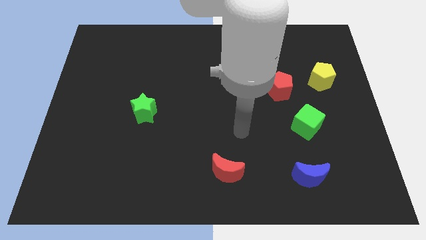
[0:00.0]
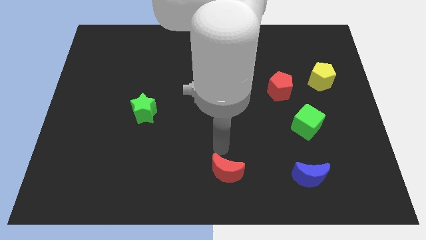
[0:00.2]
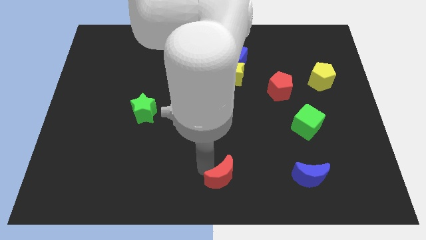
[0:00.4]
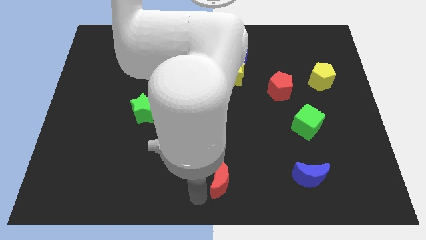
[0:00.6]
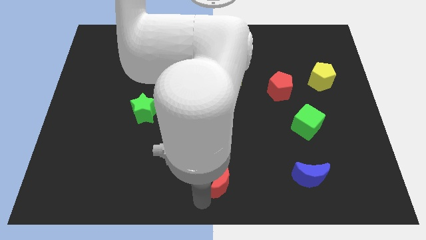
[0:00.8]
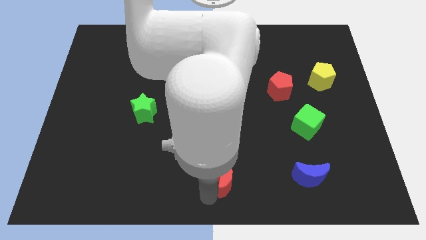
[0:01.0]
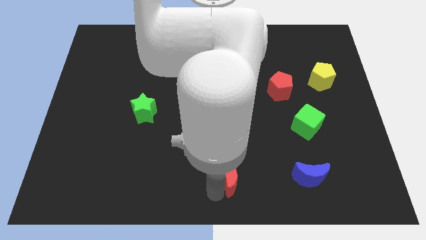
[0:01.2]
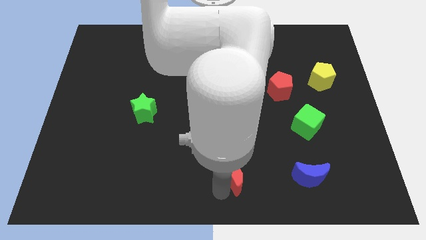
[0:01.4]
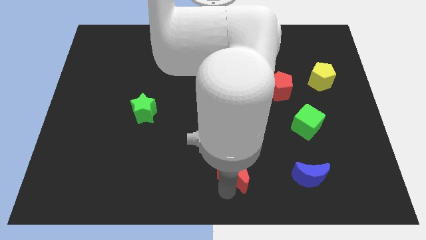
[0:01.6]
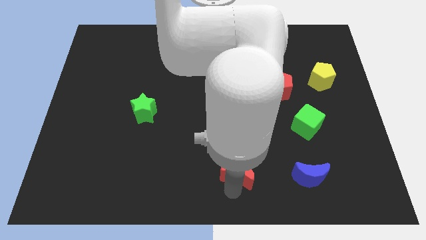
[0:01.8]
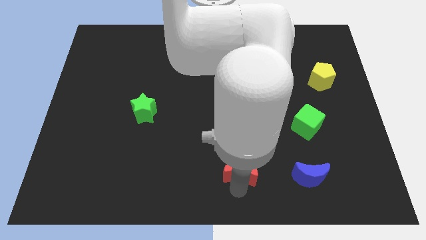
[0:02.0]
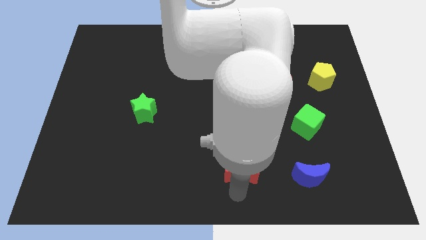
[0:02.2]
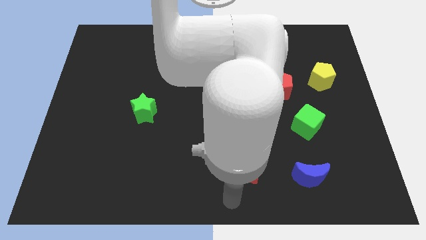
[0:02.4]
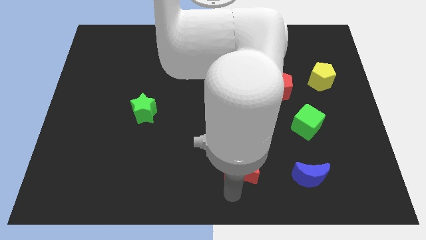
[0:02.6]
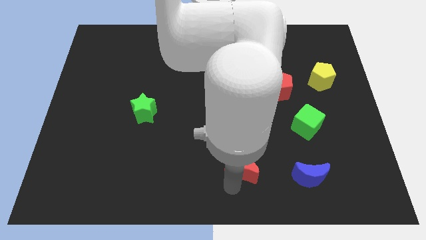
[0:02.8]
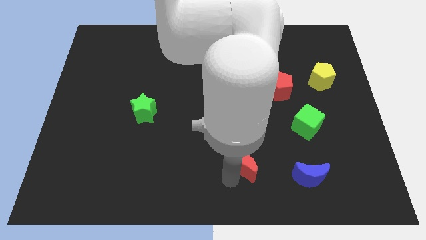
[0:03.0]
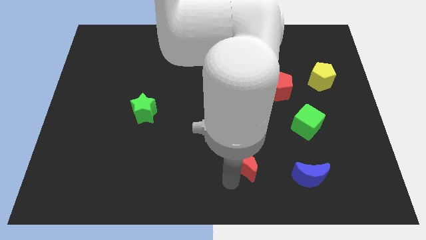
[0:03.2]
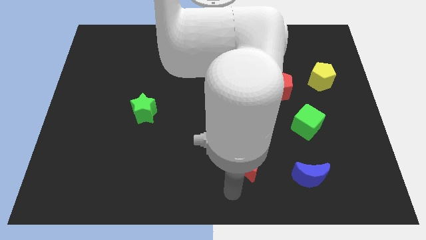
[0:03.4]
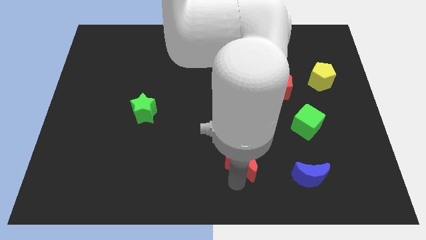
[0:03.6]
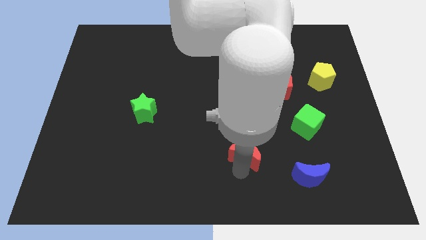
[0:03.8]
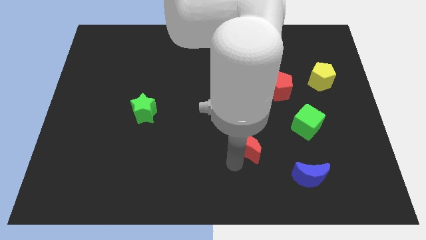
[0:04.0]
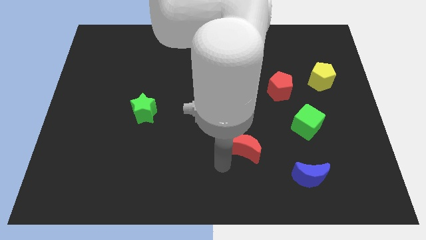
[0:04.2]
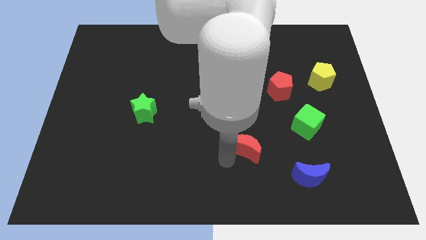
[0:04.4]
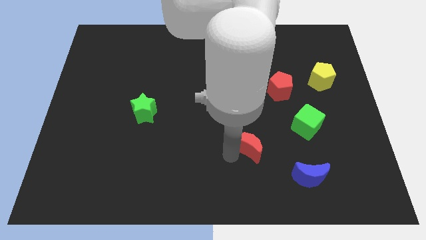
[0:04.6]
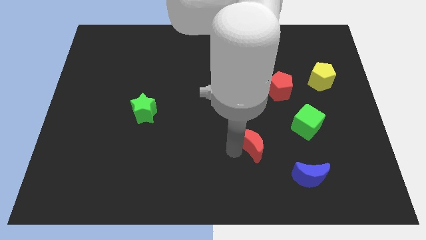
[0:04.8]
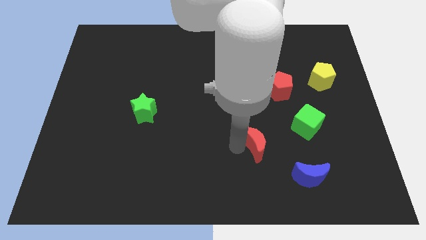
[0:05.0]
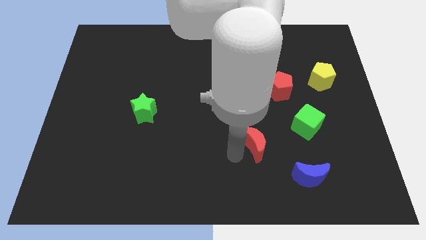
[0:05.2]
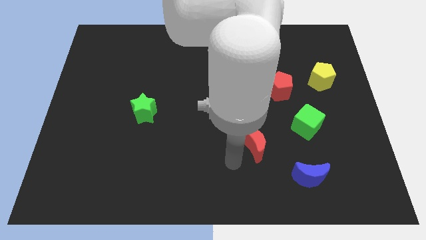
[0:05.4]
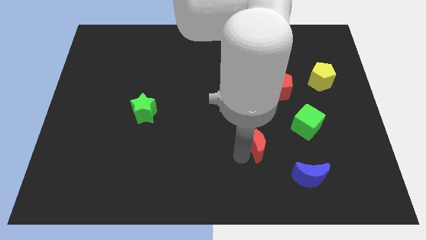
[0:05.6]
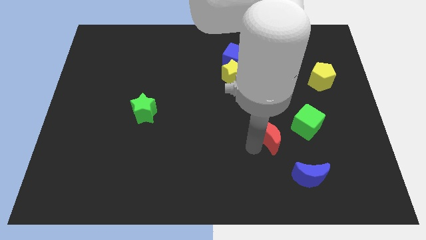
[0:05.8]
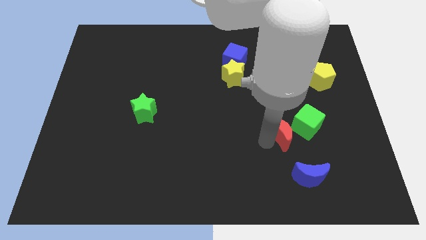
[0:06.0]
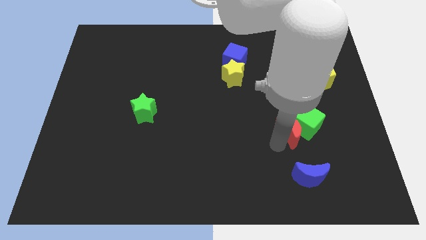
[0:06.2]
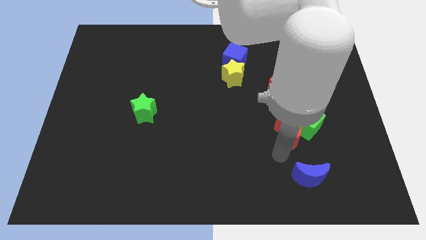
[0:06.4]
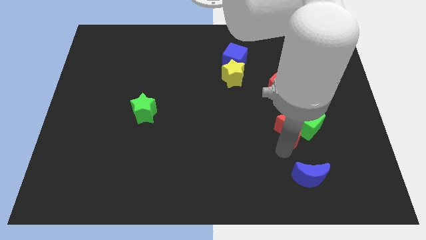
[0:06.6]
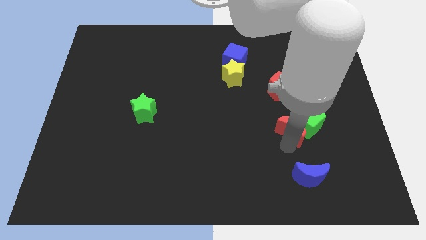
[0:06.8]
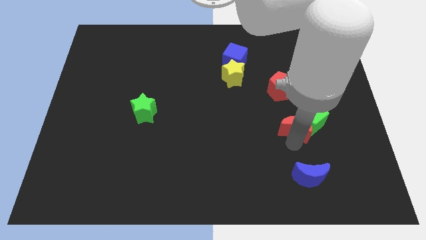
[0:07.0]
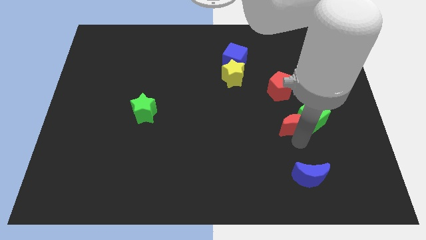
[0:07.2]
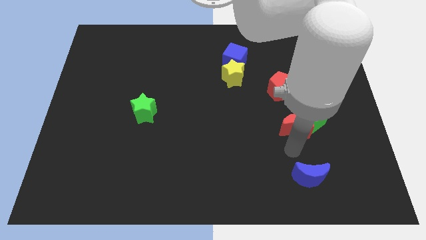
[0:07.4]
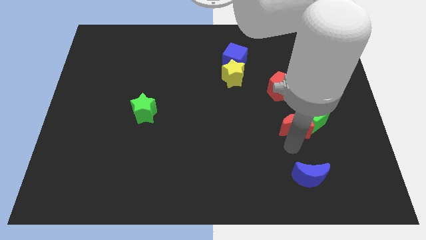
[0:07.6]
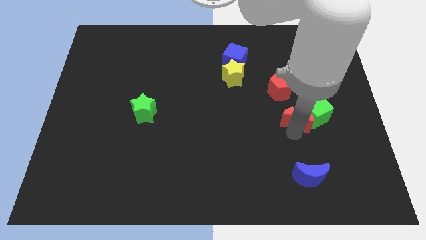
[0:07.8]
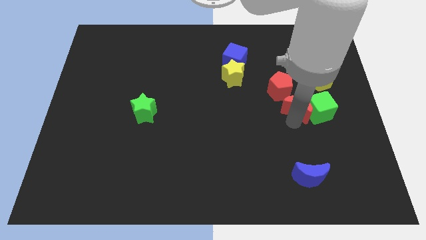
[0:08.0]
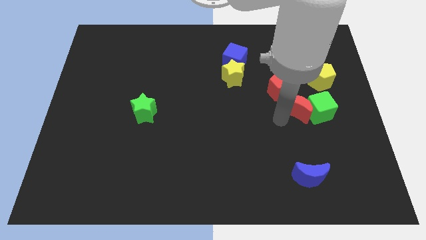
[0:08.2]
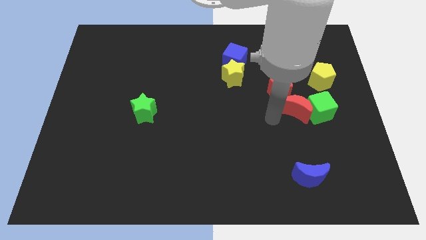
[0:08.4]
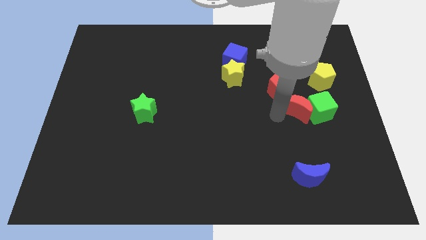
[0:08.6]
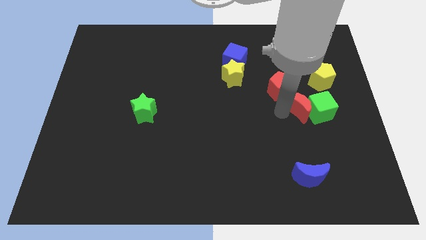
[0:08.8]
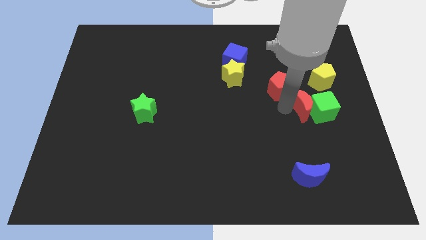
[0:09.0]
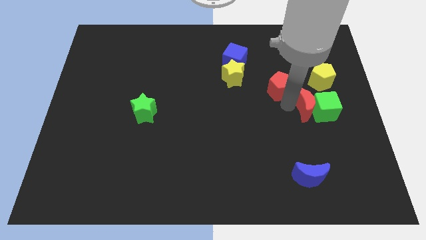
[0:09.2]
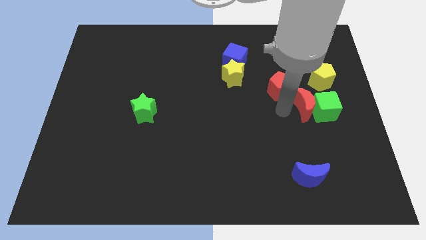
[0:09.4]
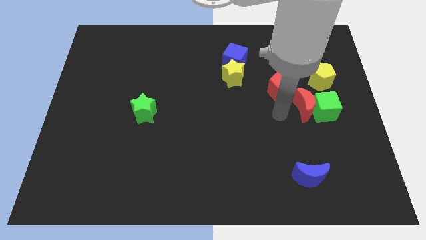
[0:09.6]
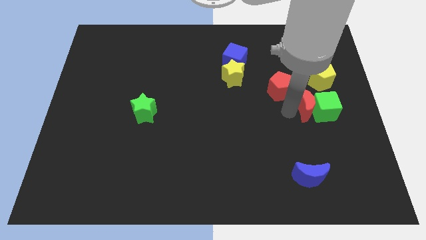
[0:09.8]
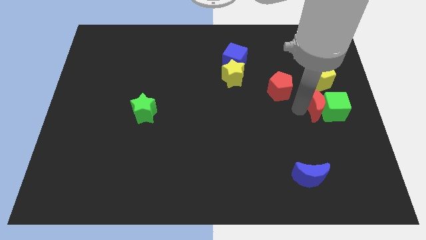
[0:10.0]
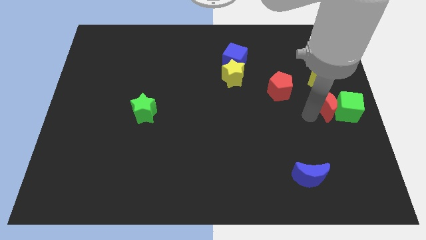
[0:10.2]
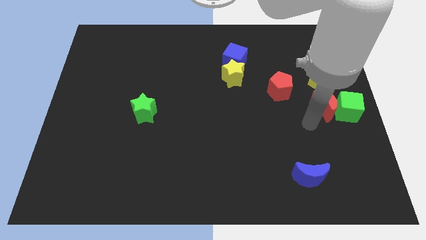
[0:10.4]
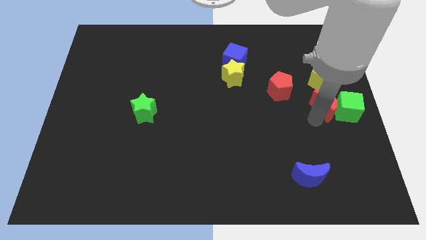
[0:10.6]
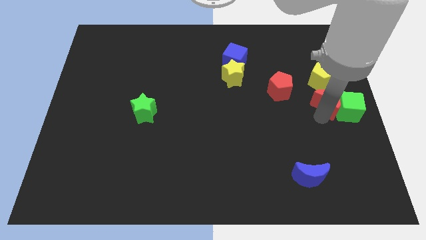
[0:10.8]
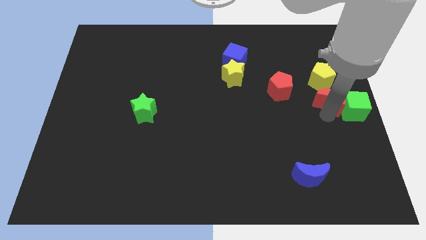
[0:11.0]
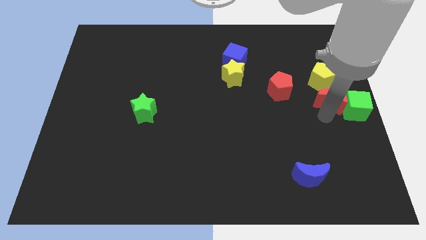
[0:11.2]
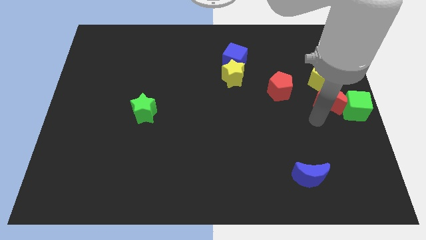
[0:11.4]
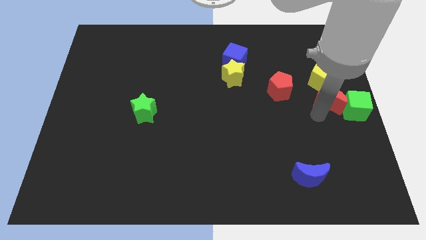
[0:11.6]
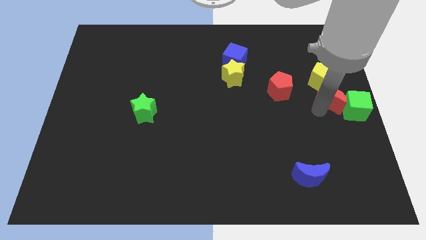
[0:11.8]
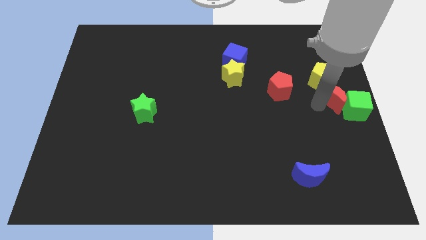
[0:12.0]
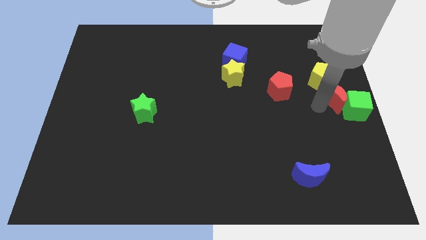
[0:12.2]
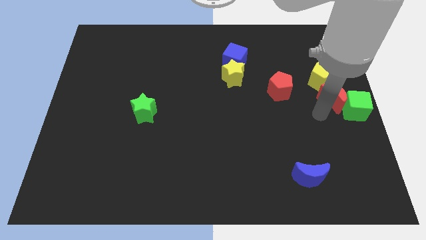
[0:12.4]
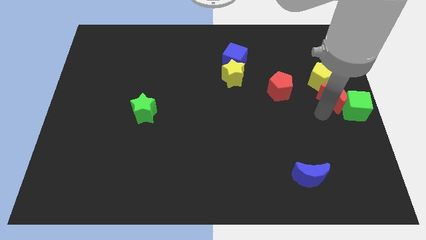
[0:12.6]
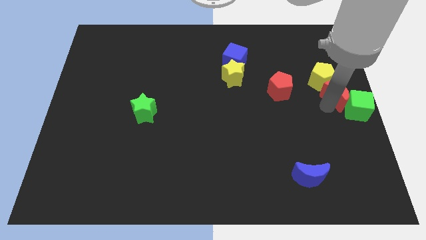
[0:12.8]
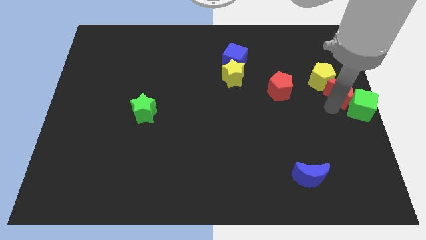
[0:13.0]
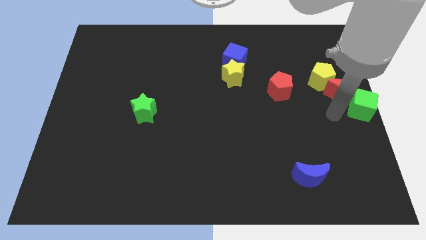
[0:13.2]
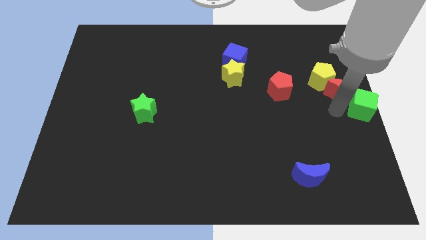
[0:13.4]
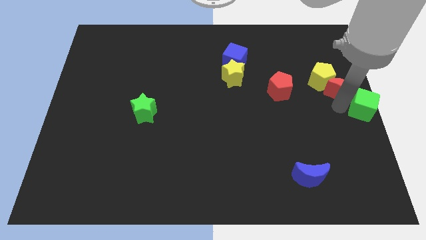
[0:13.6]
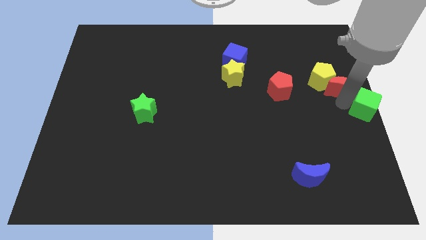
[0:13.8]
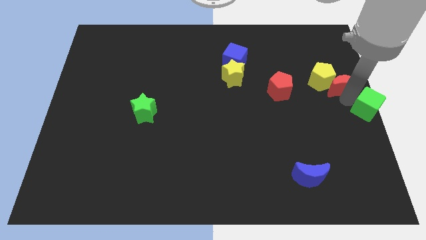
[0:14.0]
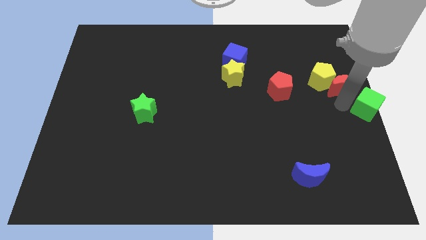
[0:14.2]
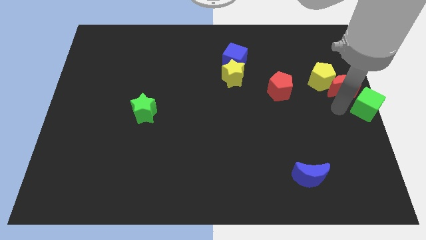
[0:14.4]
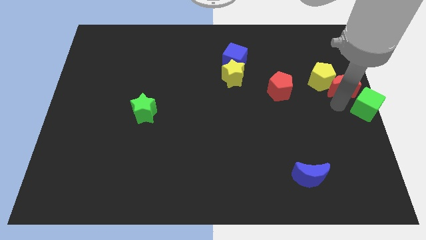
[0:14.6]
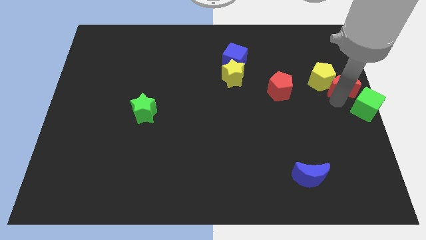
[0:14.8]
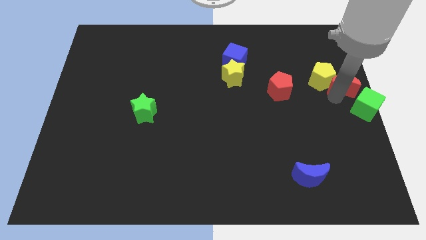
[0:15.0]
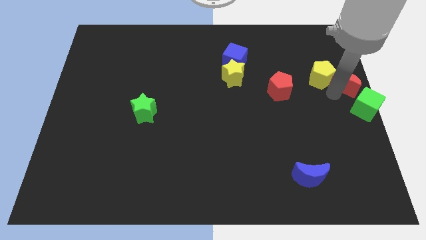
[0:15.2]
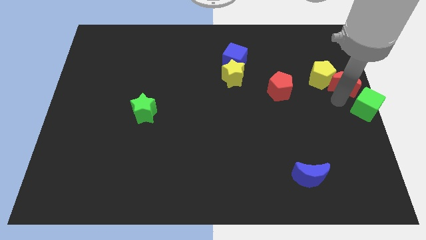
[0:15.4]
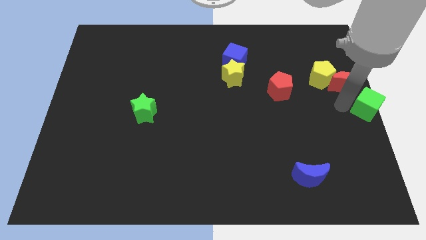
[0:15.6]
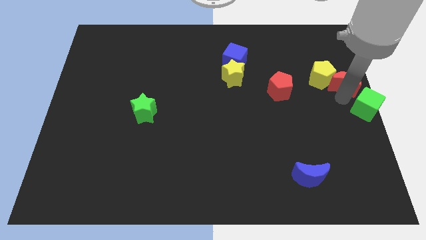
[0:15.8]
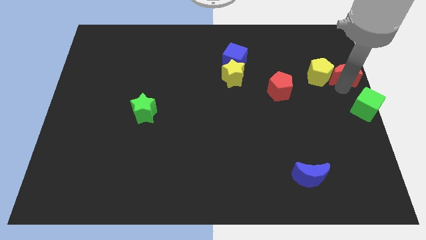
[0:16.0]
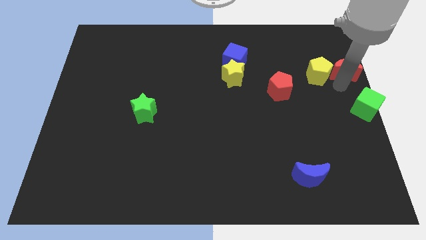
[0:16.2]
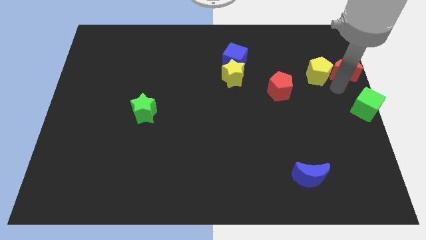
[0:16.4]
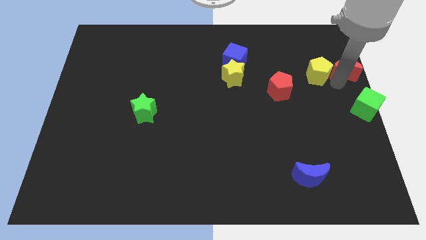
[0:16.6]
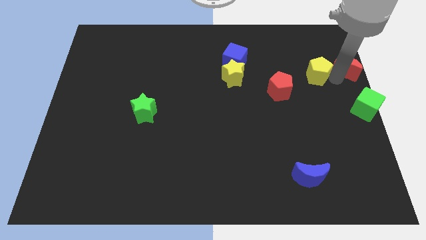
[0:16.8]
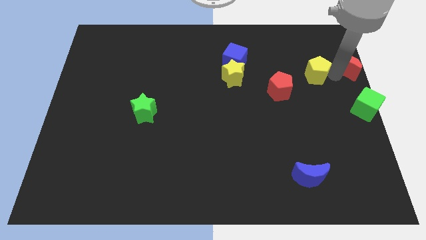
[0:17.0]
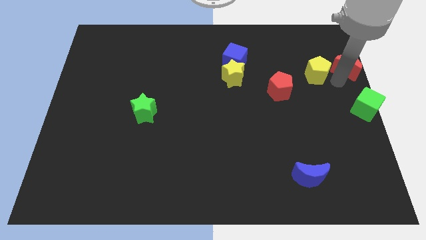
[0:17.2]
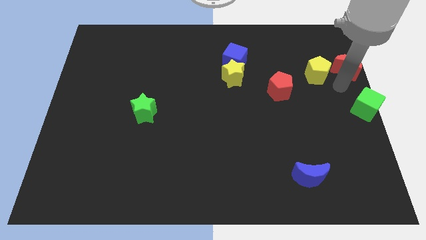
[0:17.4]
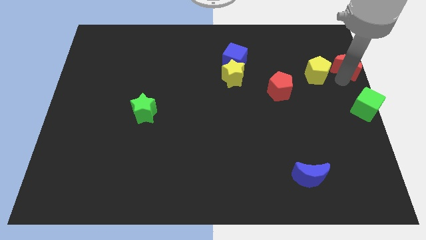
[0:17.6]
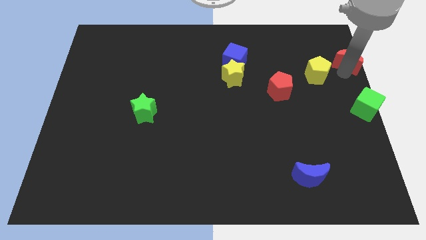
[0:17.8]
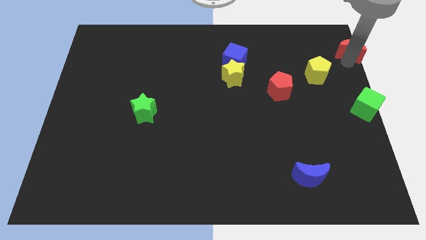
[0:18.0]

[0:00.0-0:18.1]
move the red moon to the top right of the board
